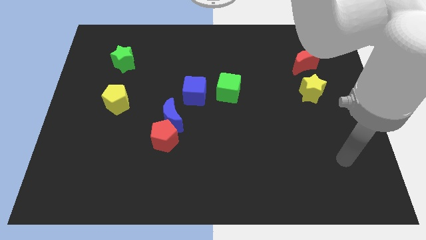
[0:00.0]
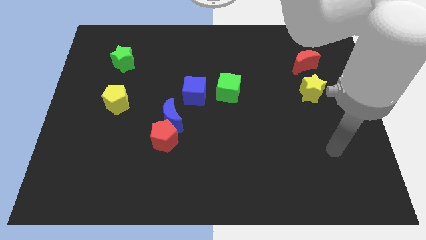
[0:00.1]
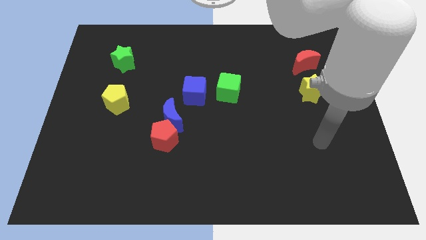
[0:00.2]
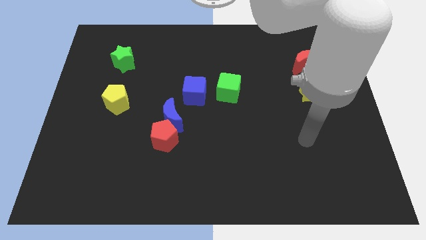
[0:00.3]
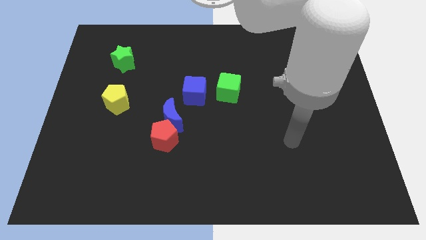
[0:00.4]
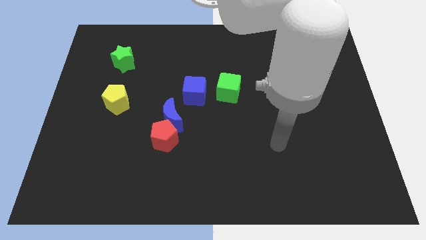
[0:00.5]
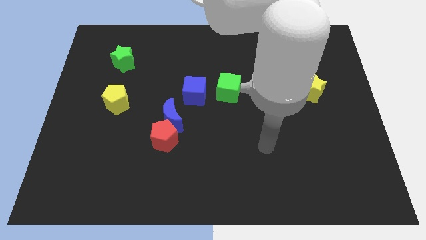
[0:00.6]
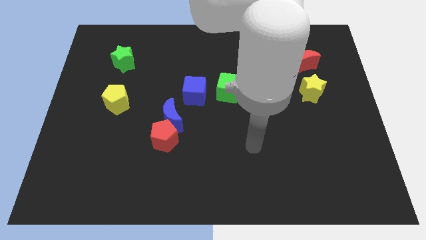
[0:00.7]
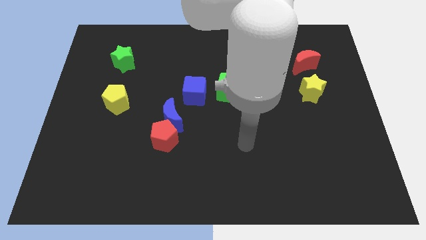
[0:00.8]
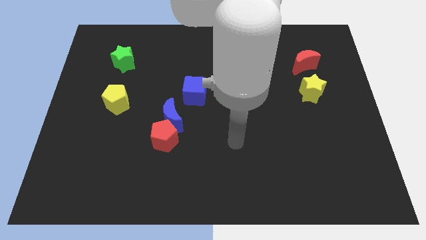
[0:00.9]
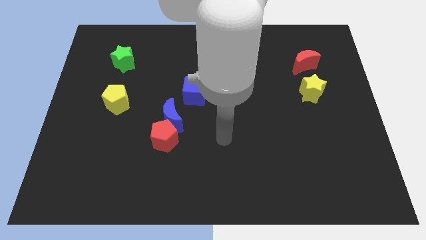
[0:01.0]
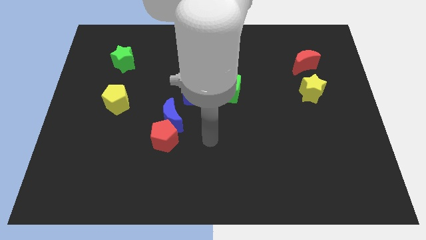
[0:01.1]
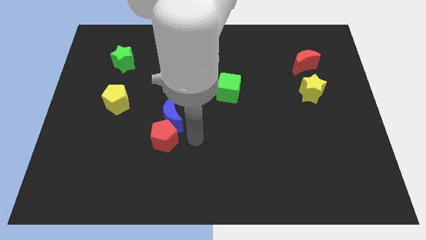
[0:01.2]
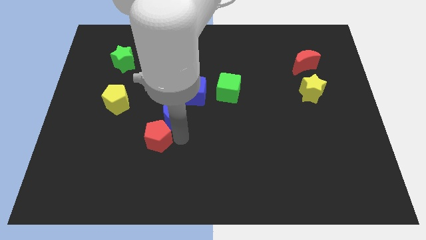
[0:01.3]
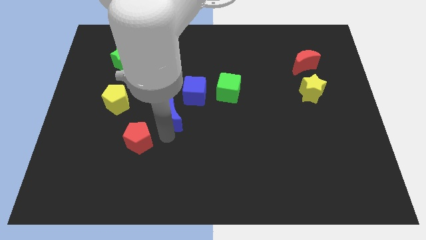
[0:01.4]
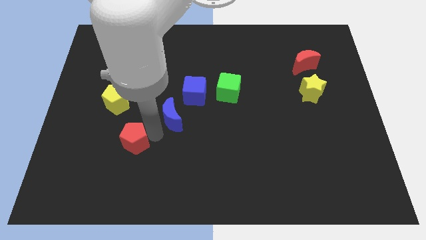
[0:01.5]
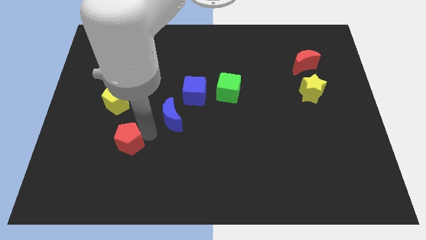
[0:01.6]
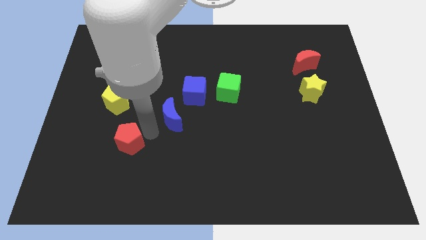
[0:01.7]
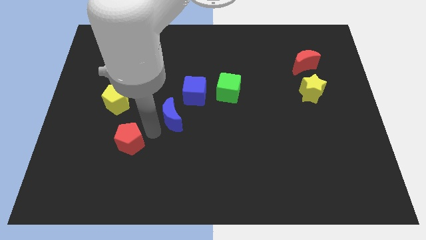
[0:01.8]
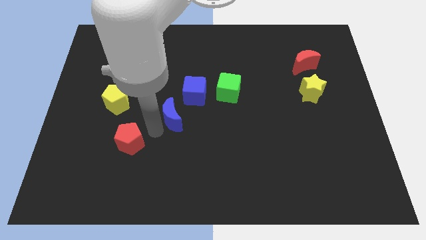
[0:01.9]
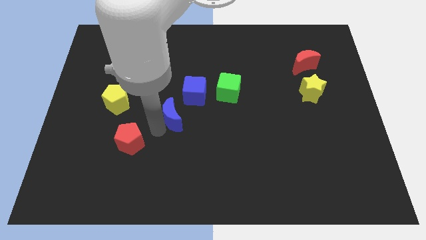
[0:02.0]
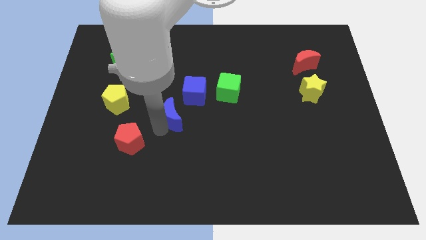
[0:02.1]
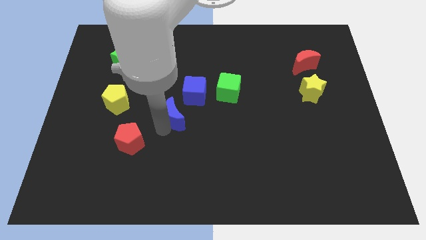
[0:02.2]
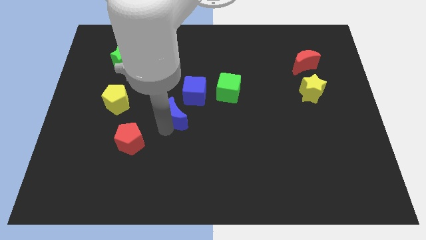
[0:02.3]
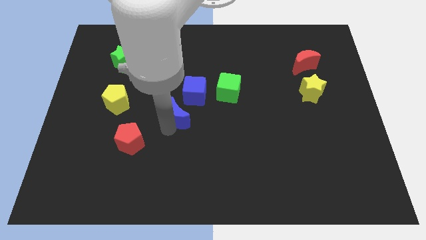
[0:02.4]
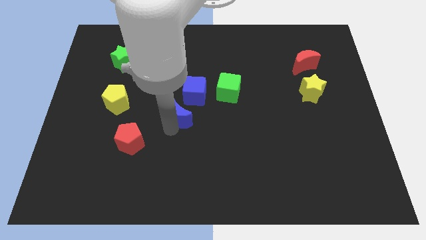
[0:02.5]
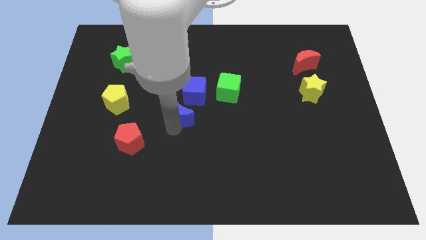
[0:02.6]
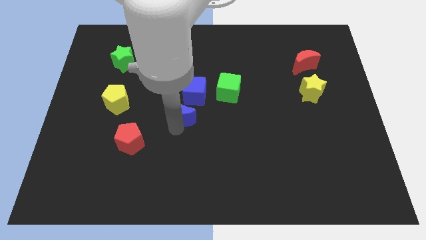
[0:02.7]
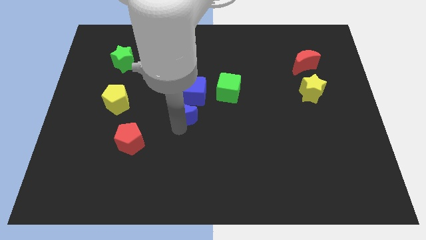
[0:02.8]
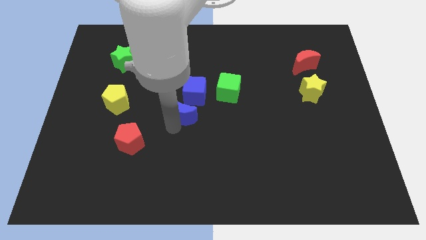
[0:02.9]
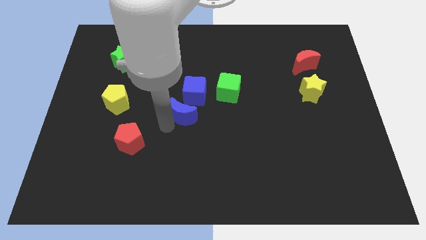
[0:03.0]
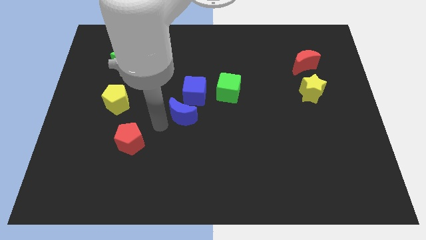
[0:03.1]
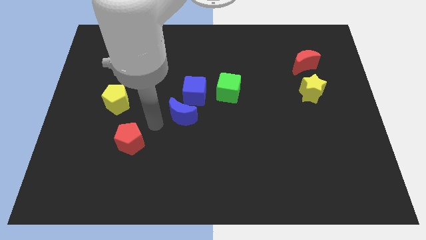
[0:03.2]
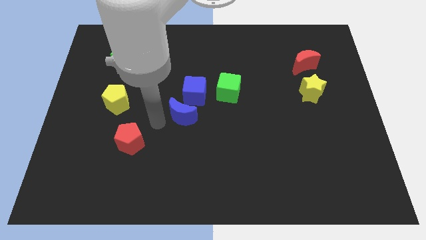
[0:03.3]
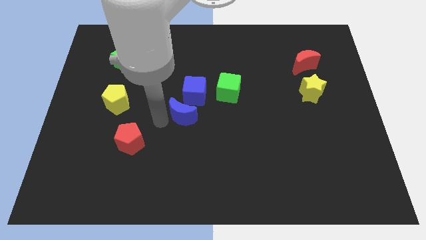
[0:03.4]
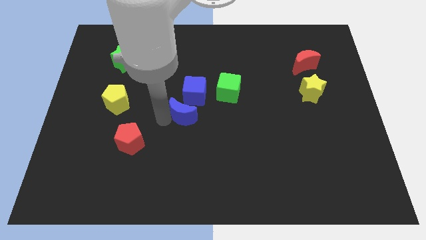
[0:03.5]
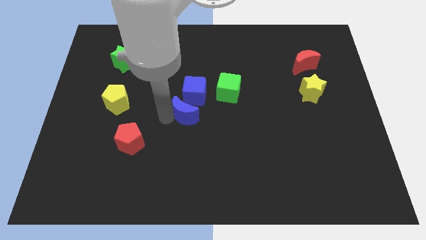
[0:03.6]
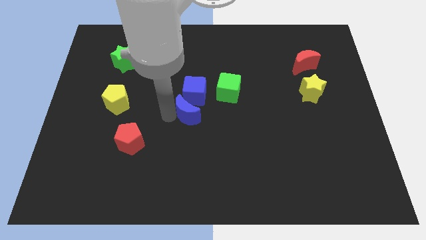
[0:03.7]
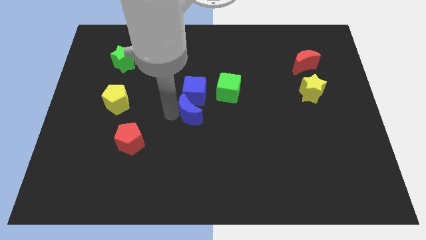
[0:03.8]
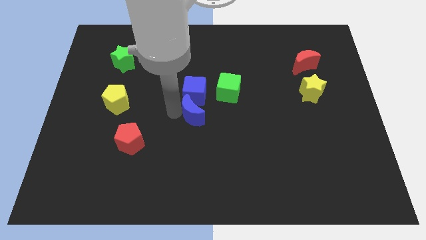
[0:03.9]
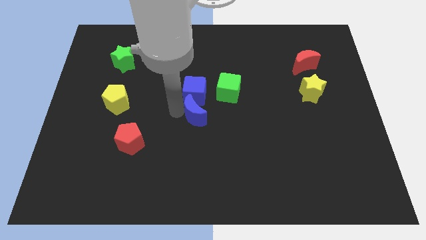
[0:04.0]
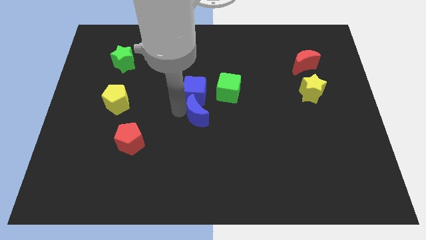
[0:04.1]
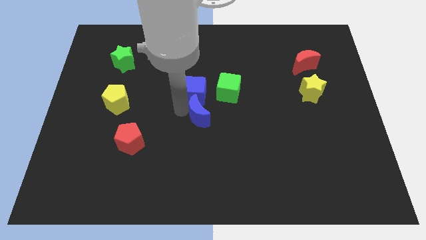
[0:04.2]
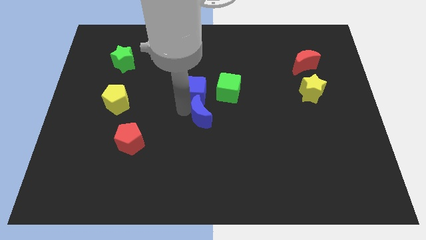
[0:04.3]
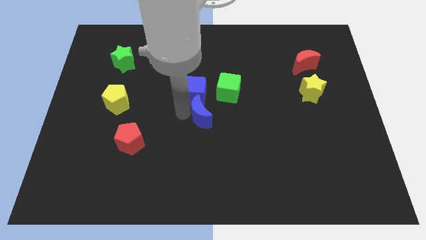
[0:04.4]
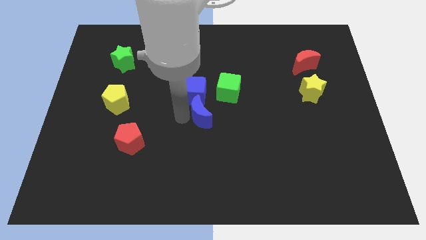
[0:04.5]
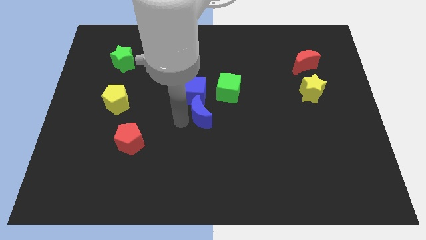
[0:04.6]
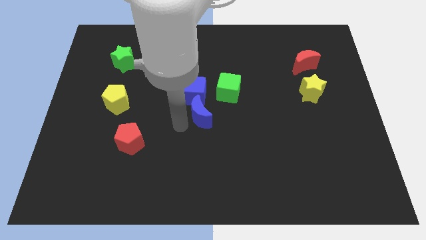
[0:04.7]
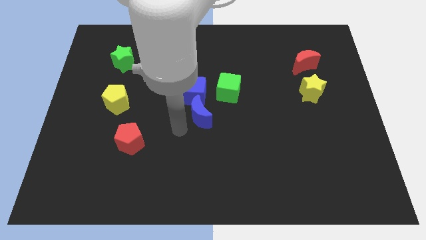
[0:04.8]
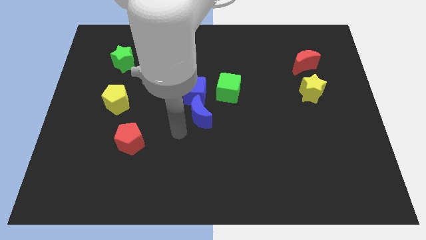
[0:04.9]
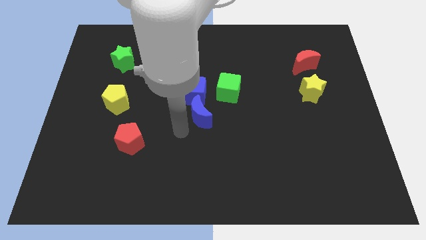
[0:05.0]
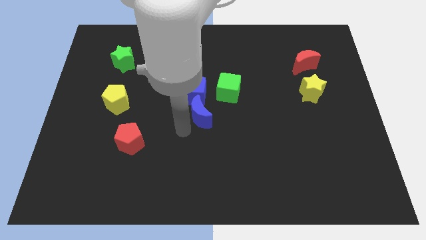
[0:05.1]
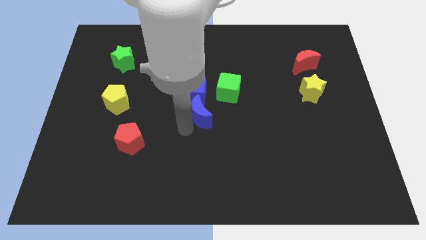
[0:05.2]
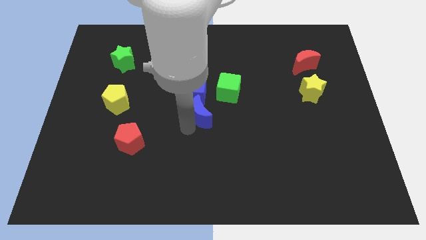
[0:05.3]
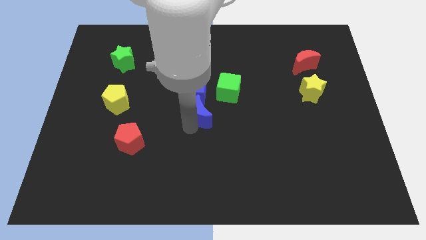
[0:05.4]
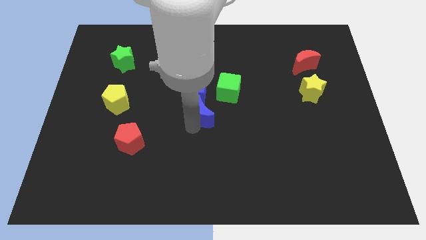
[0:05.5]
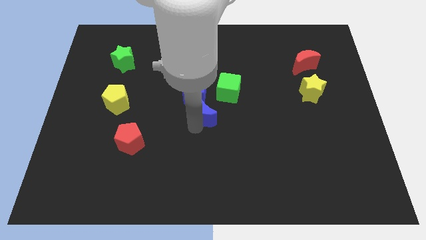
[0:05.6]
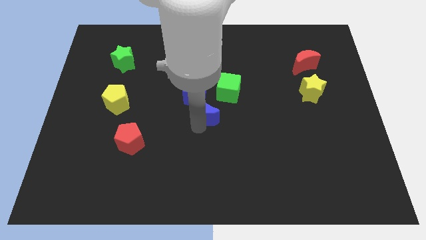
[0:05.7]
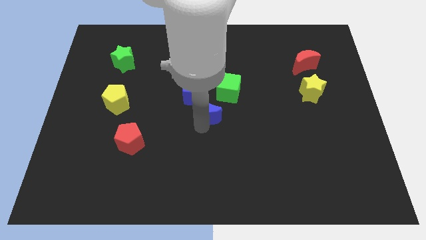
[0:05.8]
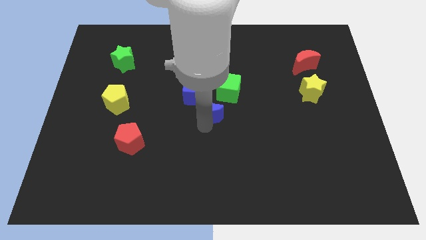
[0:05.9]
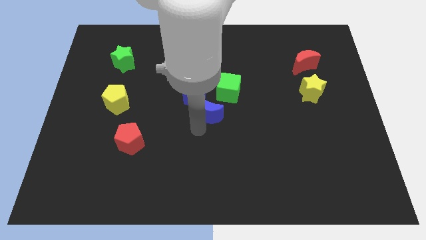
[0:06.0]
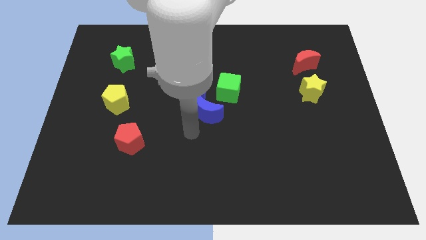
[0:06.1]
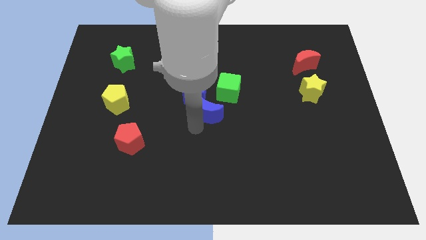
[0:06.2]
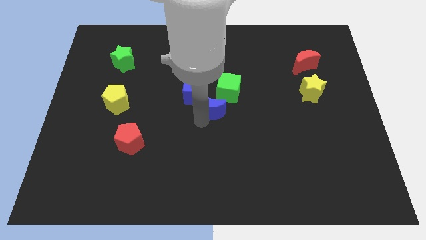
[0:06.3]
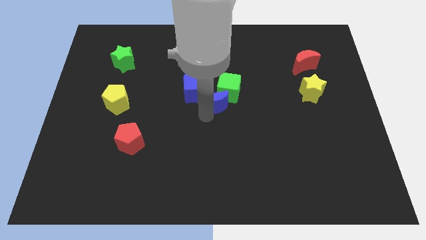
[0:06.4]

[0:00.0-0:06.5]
push the blue moon close to the green cube
